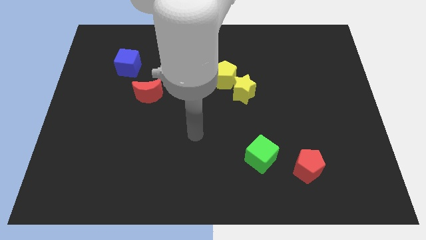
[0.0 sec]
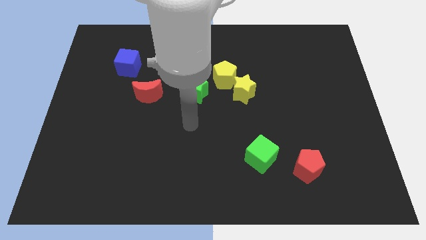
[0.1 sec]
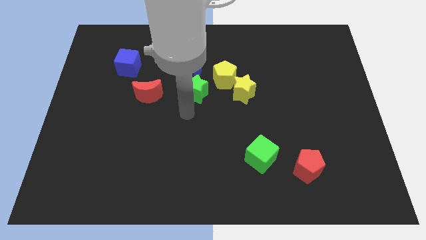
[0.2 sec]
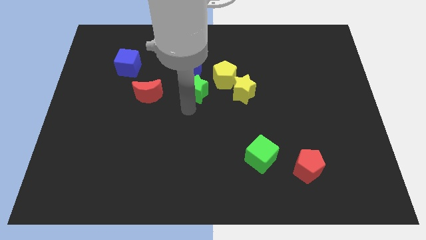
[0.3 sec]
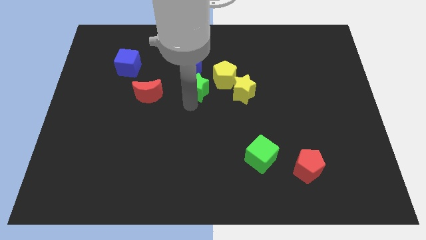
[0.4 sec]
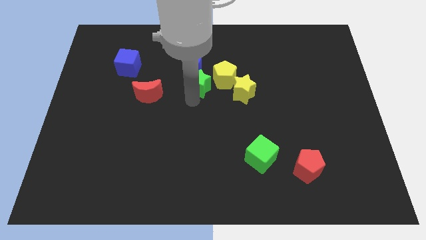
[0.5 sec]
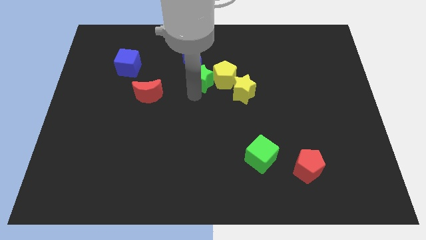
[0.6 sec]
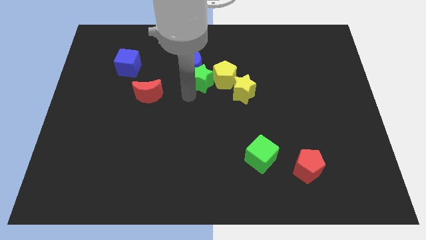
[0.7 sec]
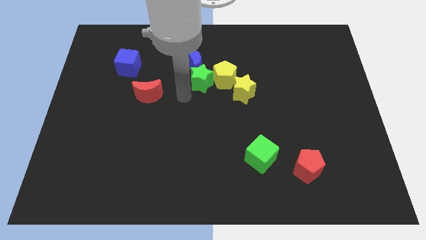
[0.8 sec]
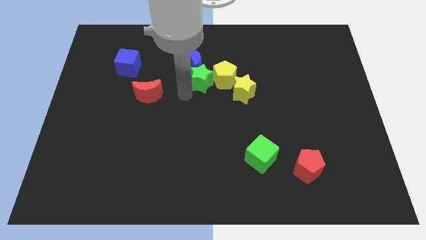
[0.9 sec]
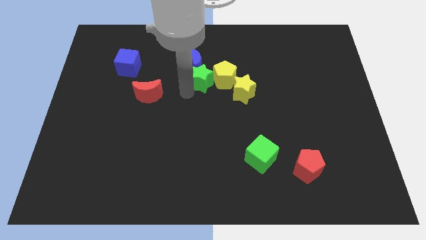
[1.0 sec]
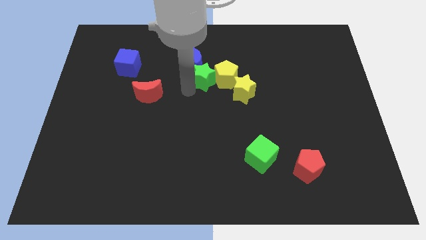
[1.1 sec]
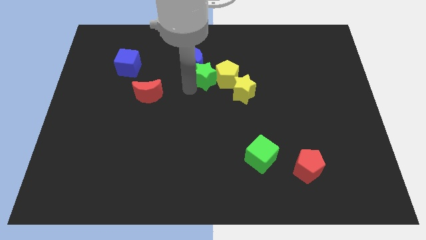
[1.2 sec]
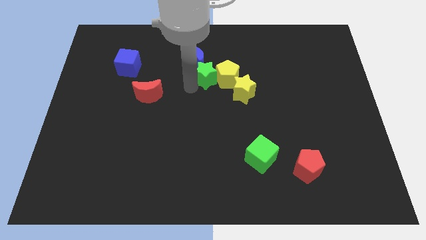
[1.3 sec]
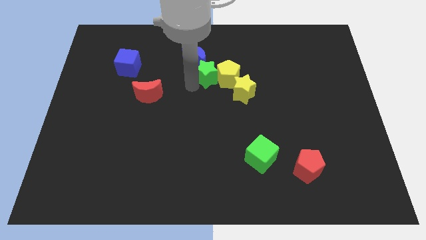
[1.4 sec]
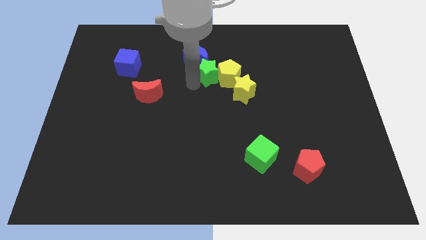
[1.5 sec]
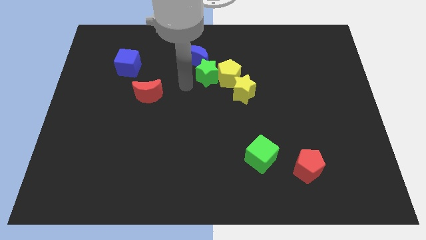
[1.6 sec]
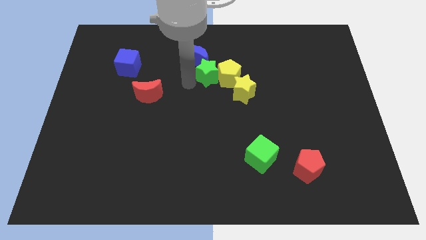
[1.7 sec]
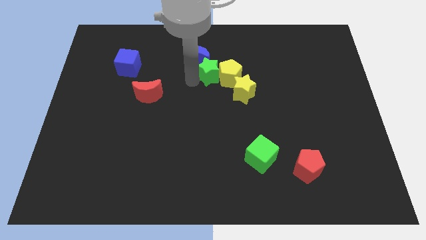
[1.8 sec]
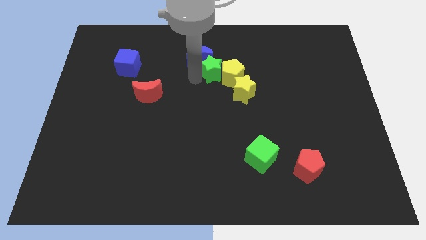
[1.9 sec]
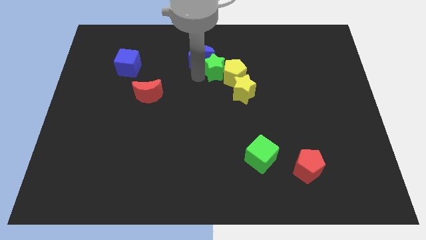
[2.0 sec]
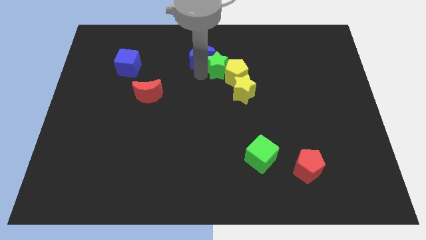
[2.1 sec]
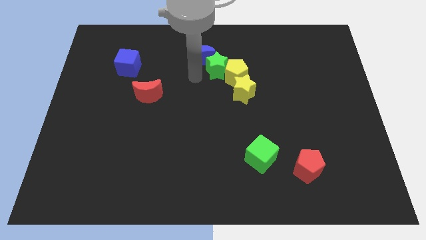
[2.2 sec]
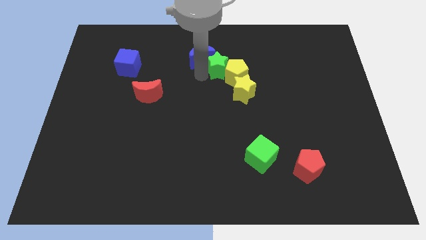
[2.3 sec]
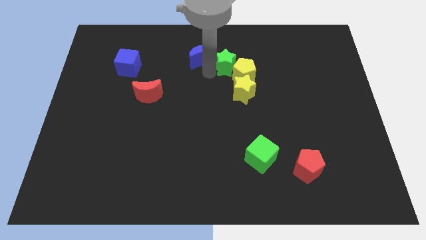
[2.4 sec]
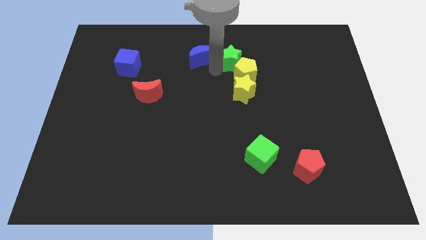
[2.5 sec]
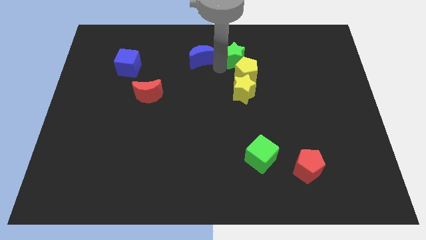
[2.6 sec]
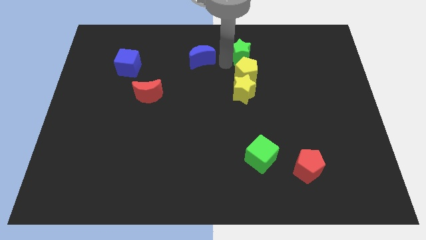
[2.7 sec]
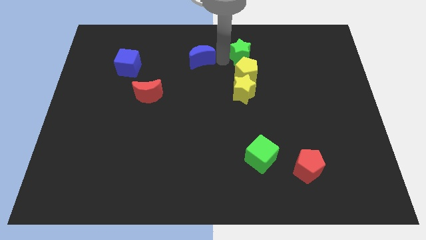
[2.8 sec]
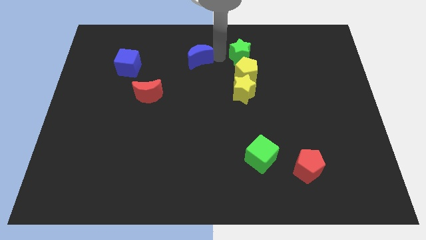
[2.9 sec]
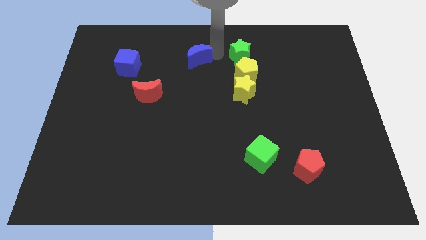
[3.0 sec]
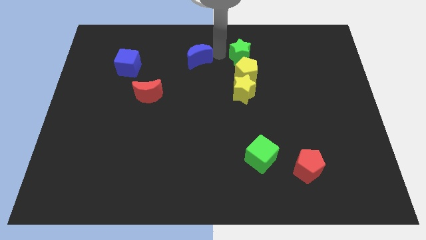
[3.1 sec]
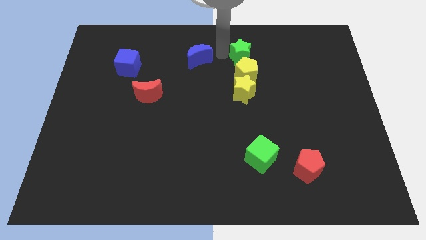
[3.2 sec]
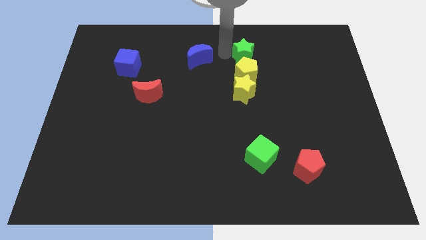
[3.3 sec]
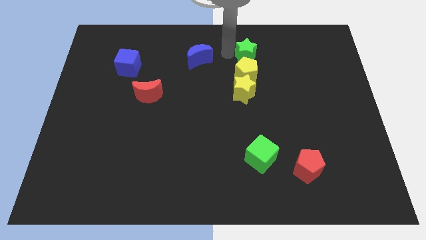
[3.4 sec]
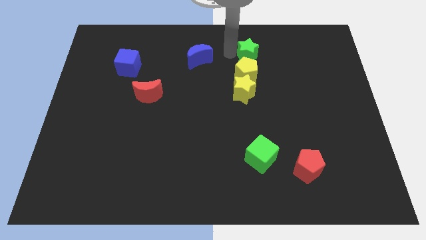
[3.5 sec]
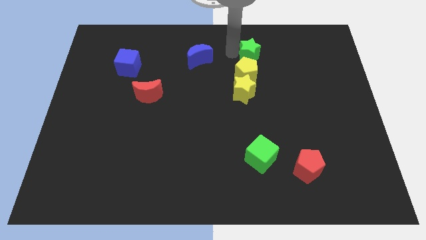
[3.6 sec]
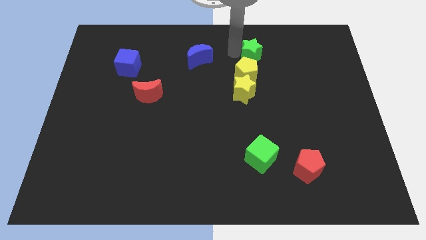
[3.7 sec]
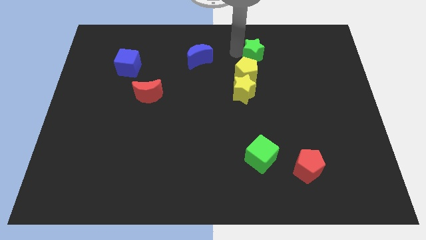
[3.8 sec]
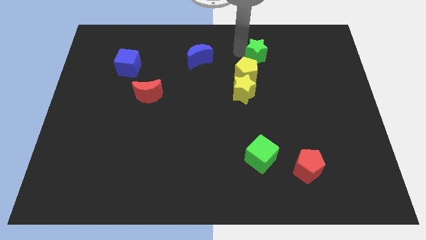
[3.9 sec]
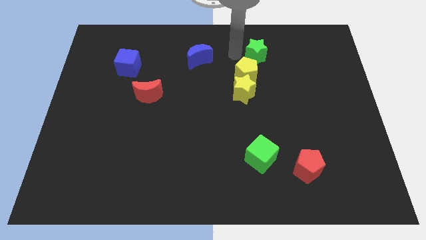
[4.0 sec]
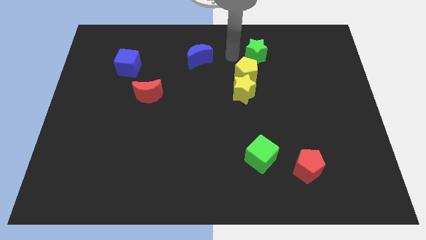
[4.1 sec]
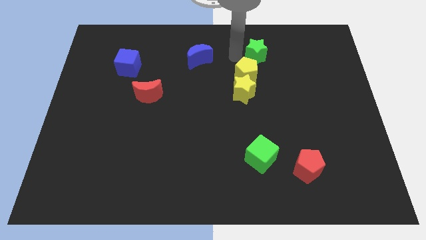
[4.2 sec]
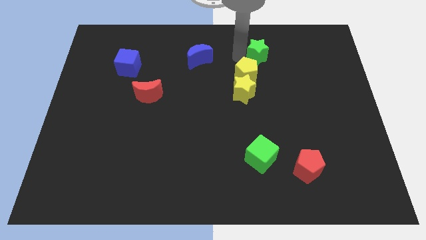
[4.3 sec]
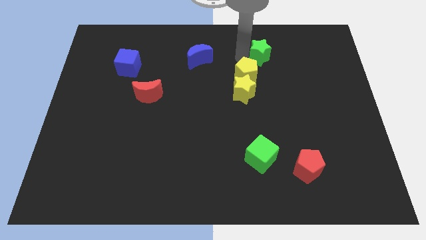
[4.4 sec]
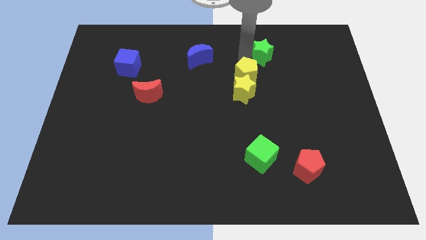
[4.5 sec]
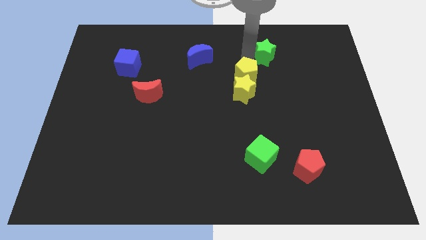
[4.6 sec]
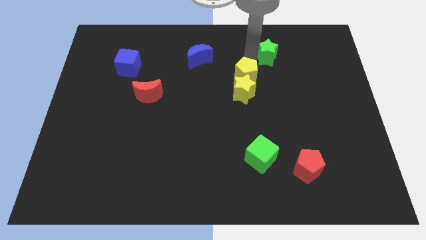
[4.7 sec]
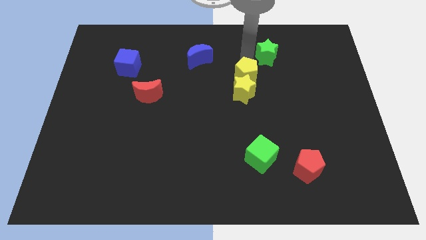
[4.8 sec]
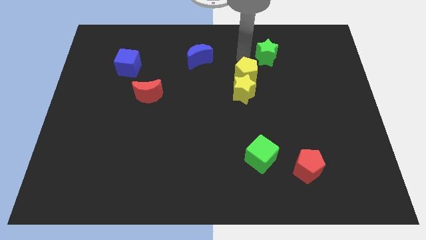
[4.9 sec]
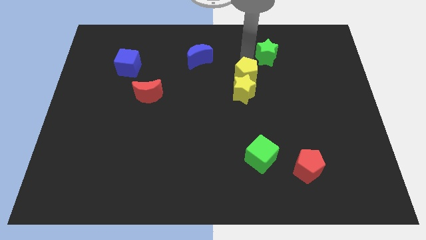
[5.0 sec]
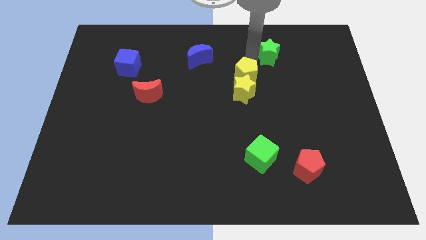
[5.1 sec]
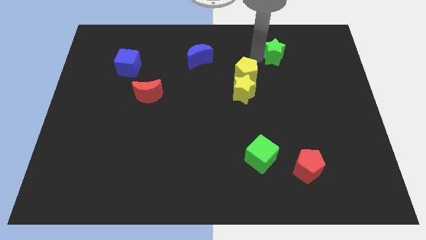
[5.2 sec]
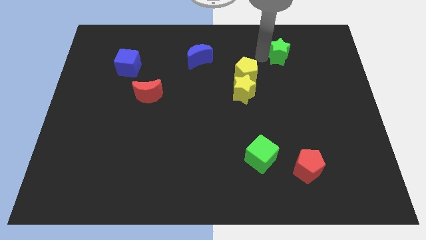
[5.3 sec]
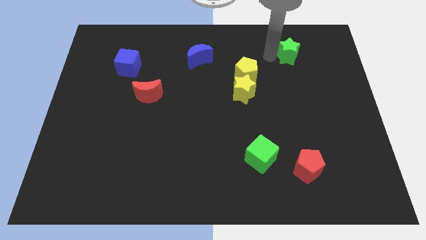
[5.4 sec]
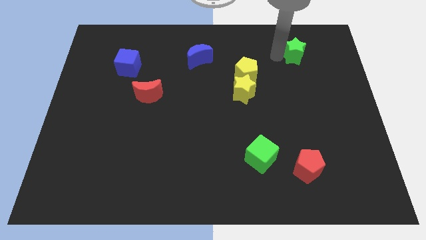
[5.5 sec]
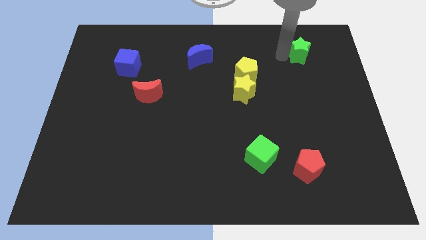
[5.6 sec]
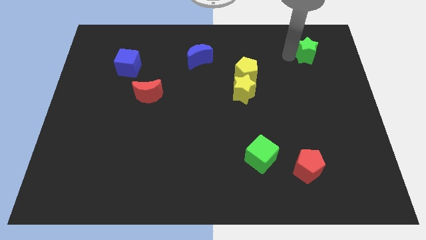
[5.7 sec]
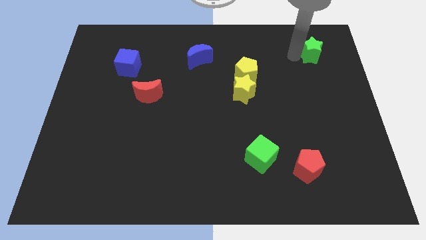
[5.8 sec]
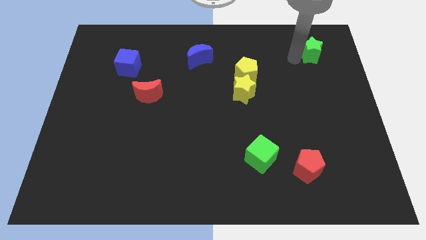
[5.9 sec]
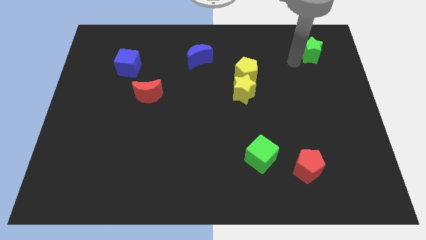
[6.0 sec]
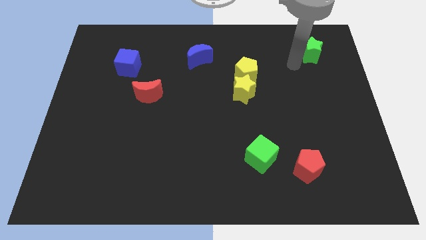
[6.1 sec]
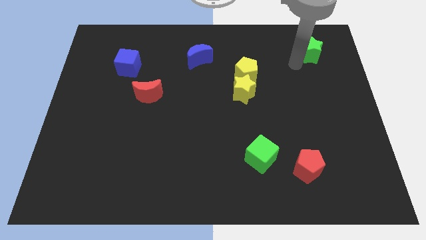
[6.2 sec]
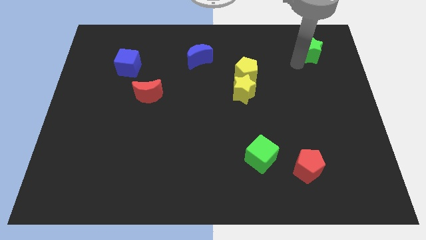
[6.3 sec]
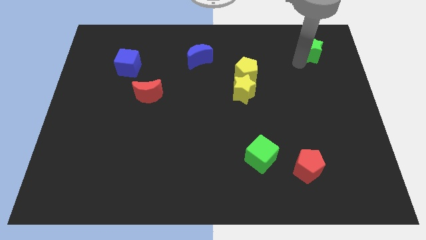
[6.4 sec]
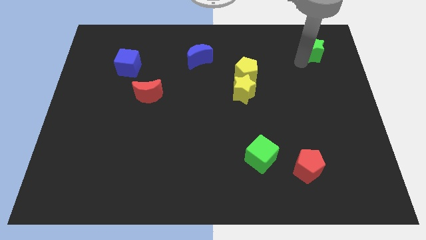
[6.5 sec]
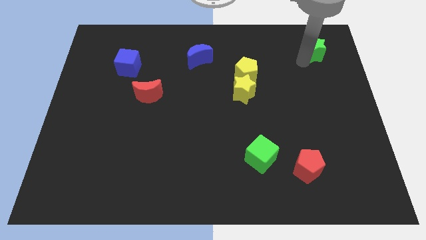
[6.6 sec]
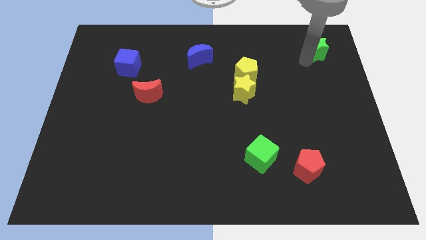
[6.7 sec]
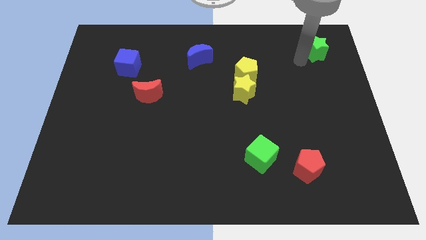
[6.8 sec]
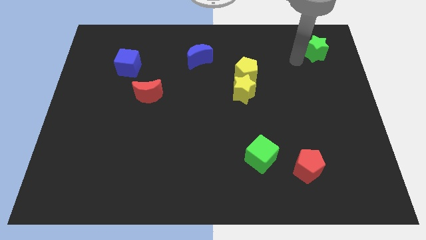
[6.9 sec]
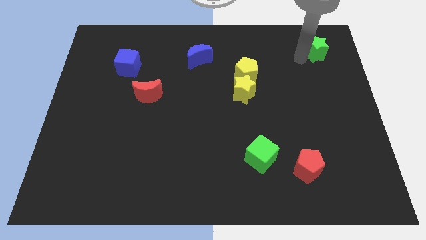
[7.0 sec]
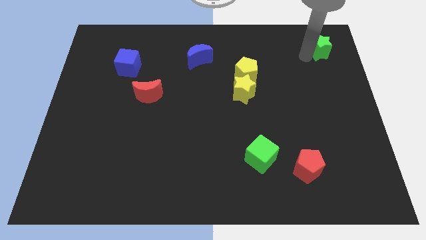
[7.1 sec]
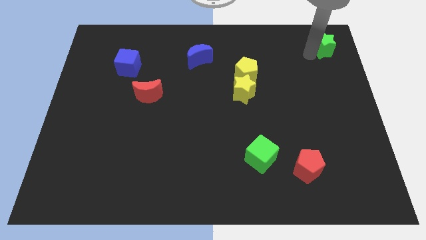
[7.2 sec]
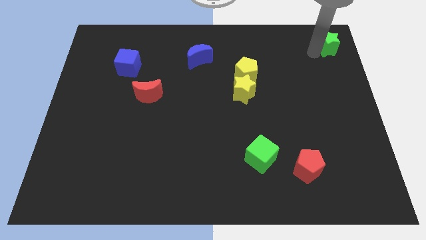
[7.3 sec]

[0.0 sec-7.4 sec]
slide the green star to the top right corner
